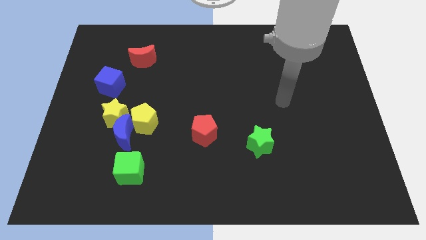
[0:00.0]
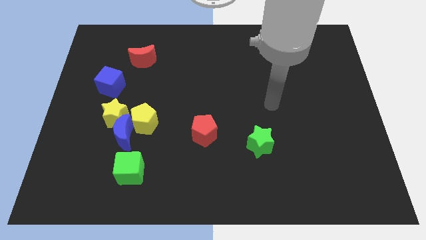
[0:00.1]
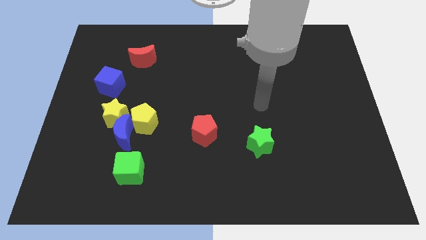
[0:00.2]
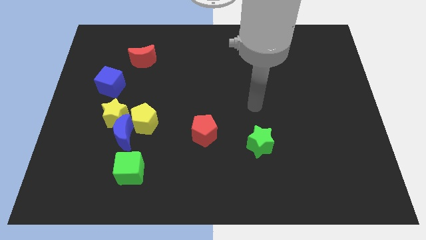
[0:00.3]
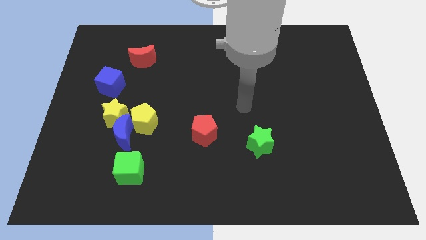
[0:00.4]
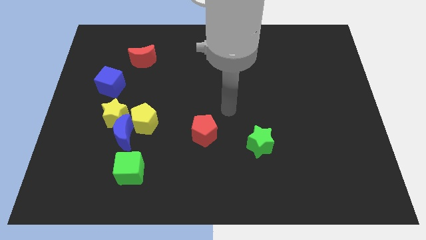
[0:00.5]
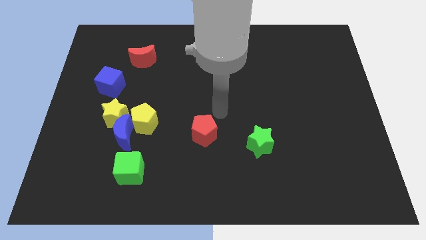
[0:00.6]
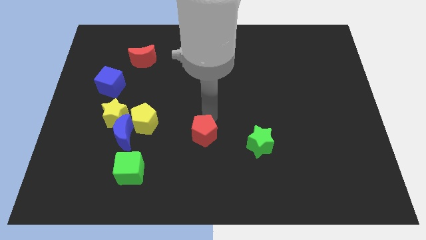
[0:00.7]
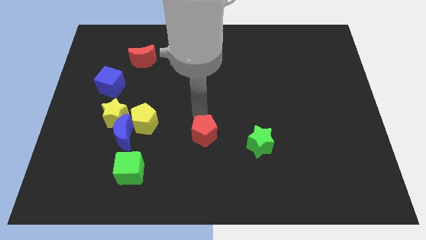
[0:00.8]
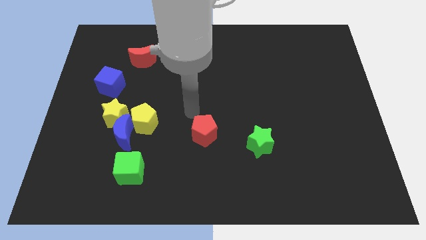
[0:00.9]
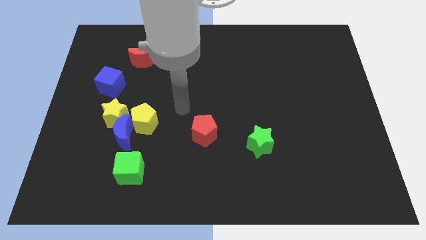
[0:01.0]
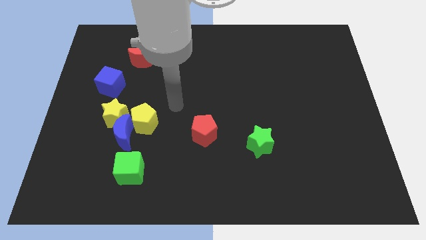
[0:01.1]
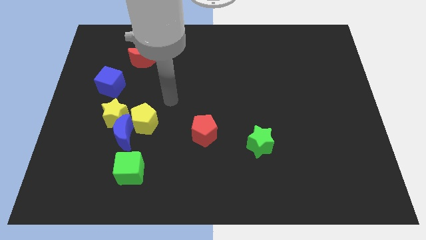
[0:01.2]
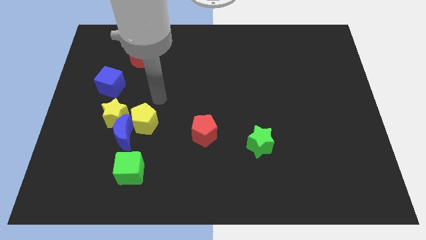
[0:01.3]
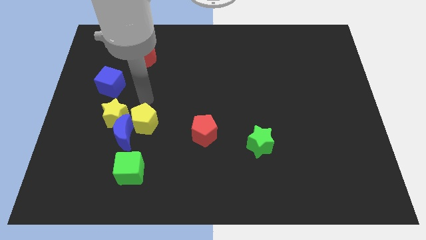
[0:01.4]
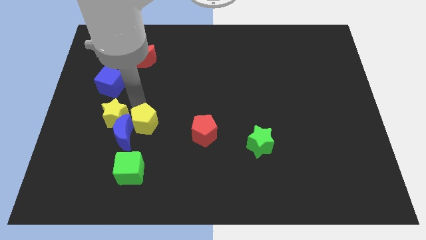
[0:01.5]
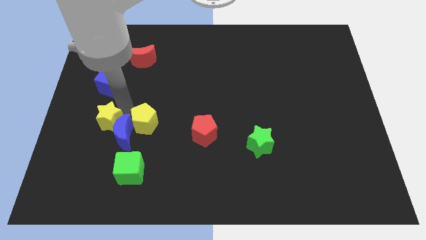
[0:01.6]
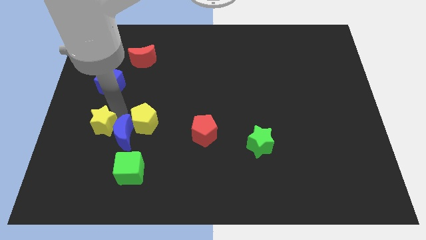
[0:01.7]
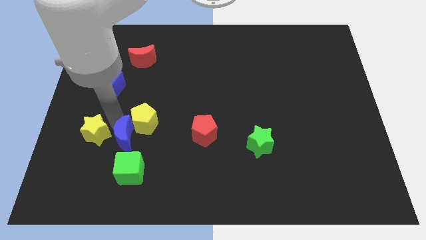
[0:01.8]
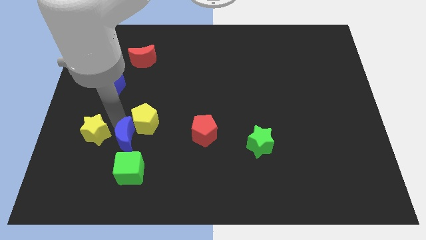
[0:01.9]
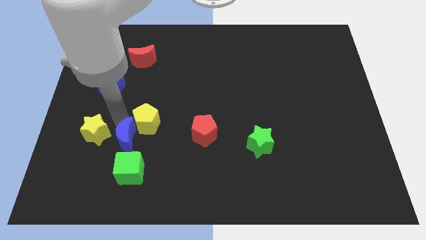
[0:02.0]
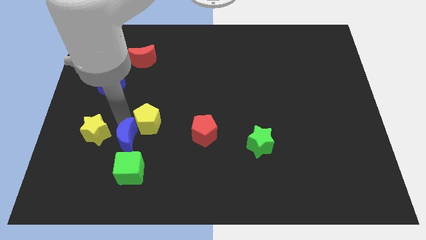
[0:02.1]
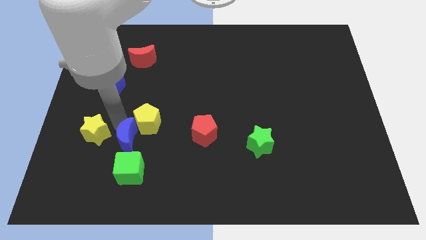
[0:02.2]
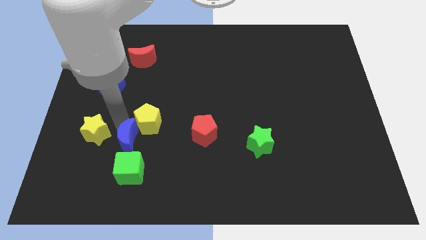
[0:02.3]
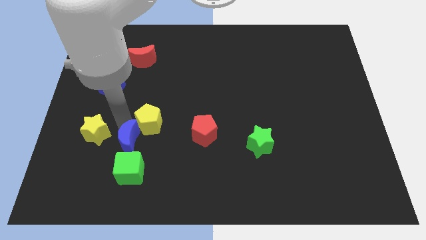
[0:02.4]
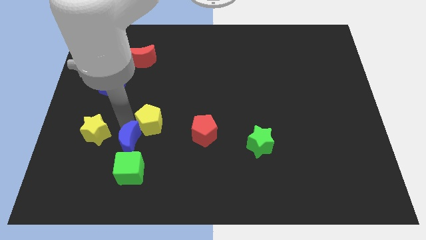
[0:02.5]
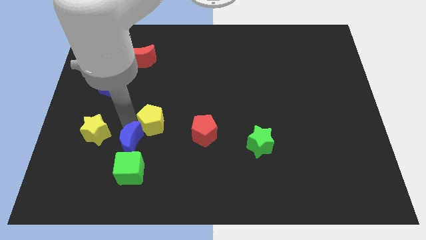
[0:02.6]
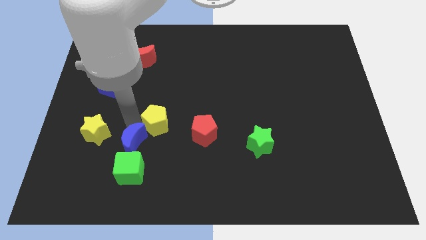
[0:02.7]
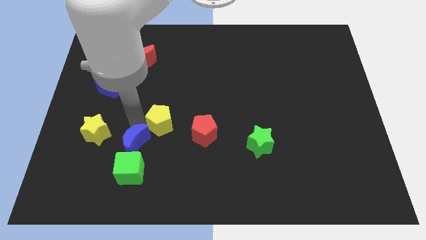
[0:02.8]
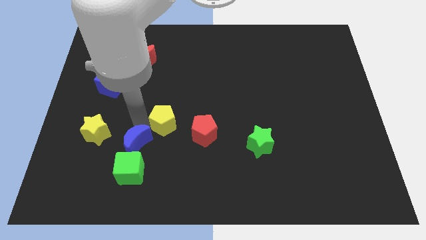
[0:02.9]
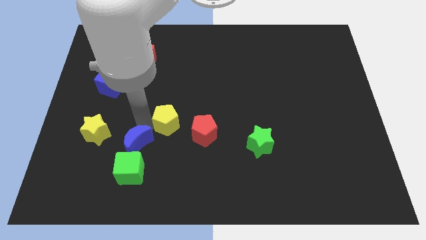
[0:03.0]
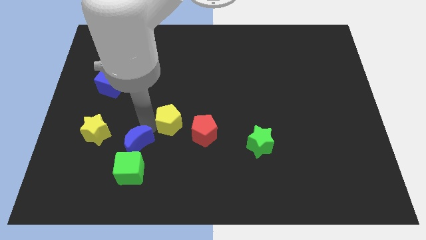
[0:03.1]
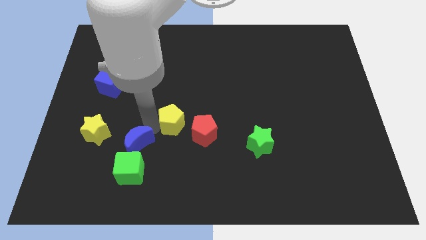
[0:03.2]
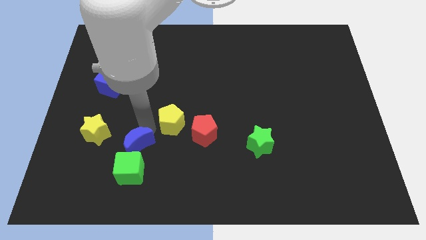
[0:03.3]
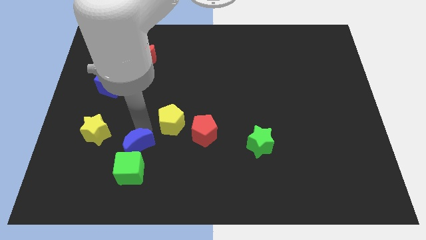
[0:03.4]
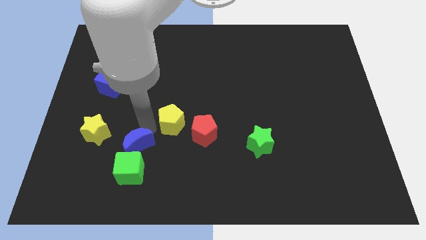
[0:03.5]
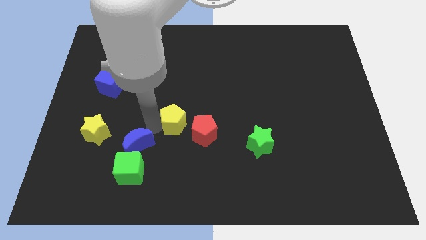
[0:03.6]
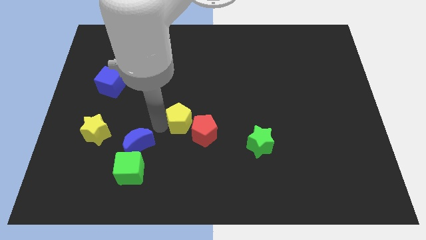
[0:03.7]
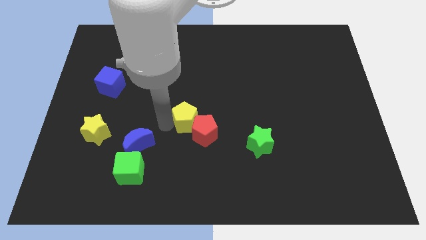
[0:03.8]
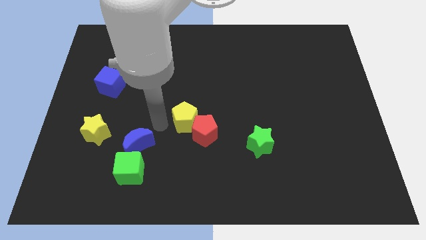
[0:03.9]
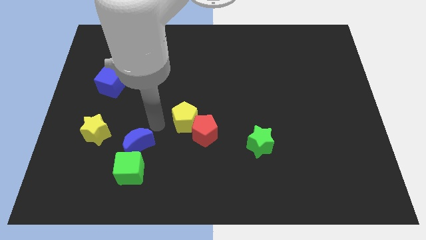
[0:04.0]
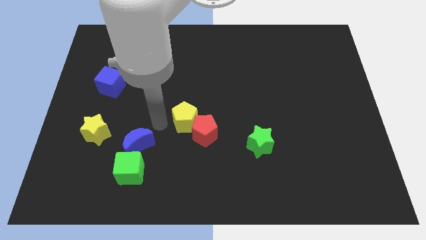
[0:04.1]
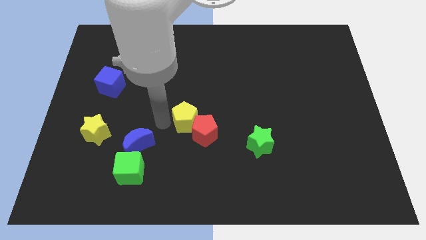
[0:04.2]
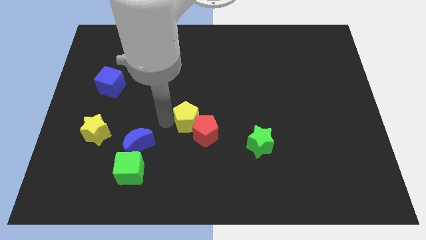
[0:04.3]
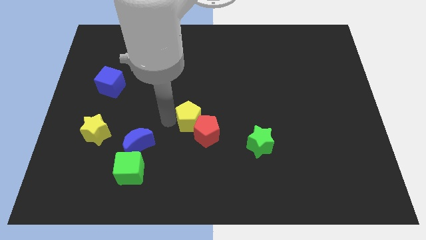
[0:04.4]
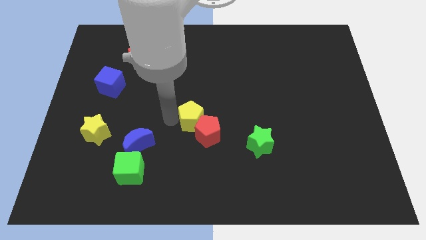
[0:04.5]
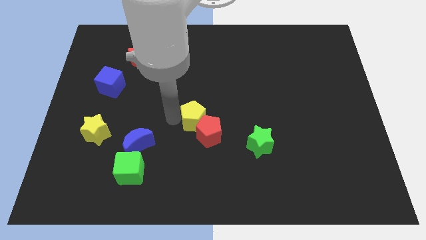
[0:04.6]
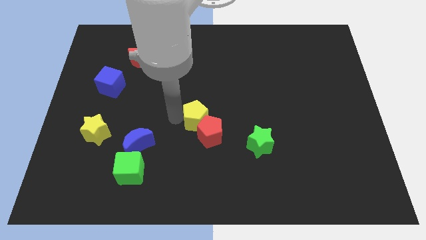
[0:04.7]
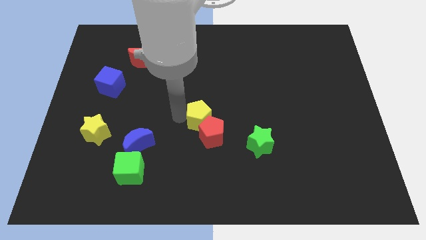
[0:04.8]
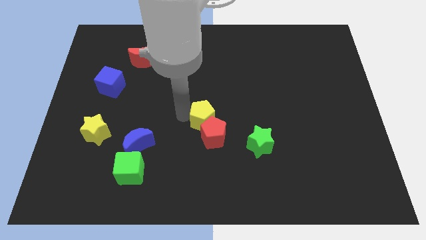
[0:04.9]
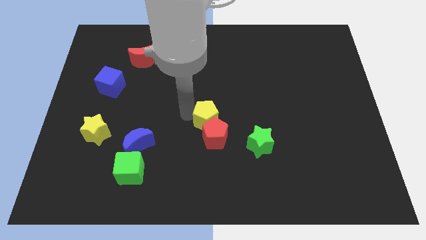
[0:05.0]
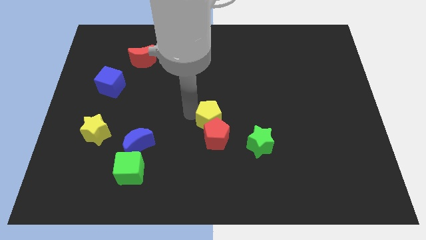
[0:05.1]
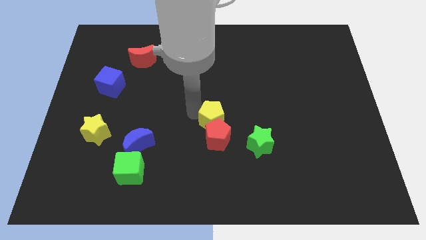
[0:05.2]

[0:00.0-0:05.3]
move the yellow pentagon diagonally up and to the right of the red pentagon

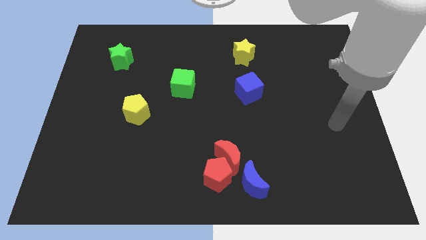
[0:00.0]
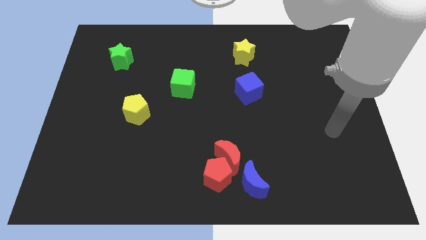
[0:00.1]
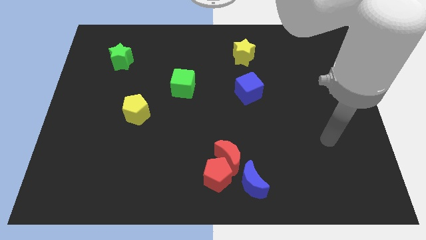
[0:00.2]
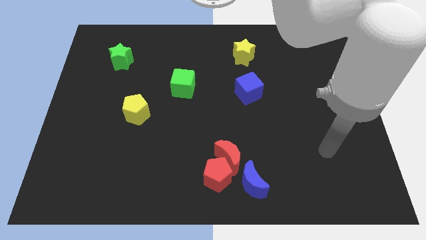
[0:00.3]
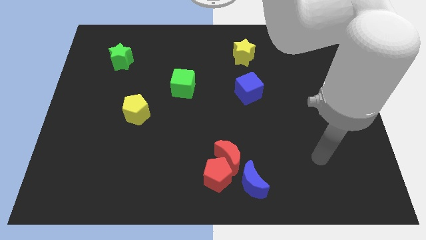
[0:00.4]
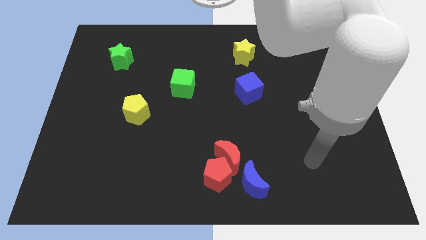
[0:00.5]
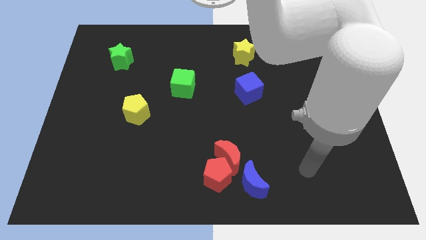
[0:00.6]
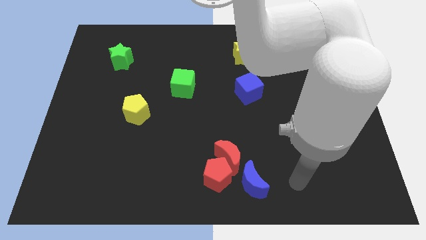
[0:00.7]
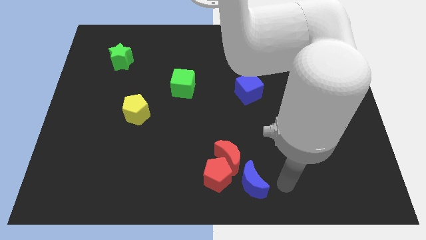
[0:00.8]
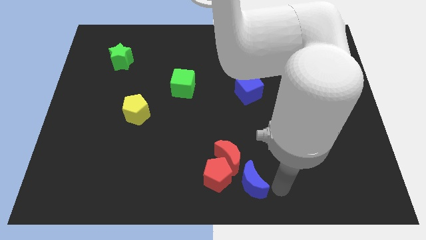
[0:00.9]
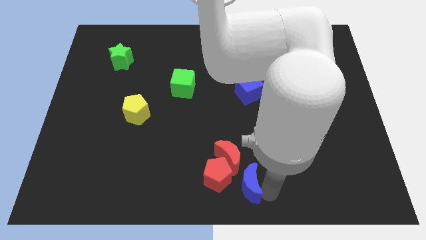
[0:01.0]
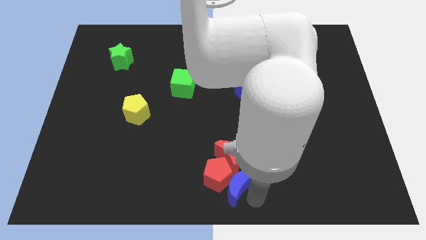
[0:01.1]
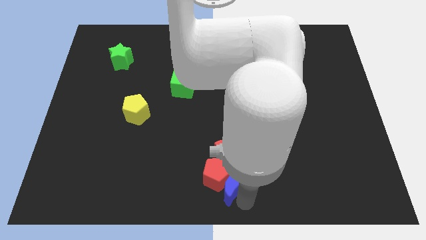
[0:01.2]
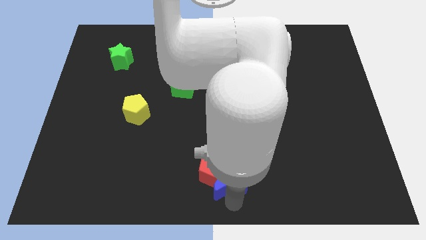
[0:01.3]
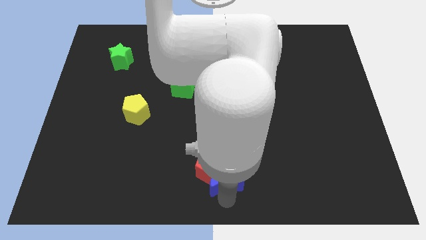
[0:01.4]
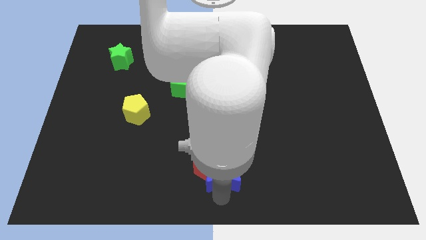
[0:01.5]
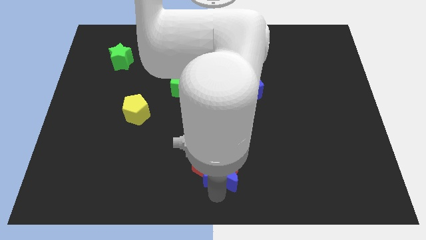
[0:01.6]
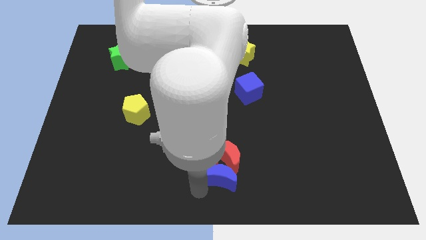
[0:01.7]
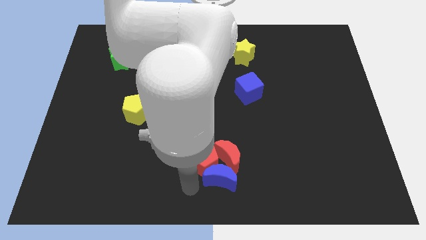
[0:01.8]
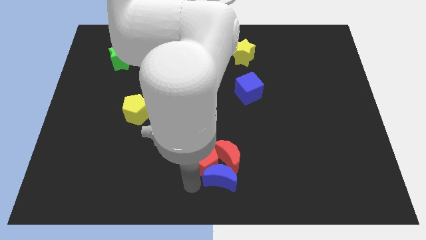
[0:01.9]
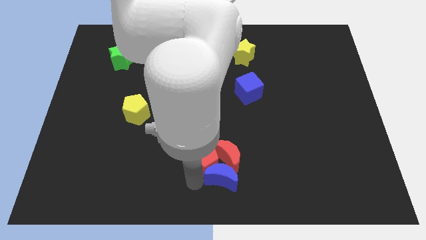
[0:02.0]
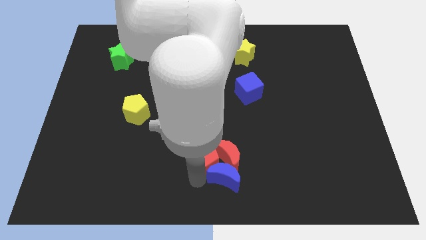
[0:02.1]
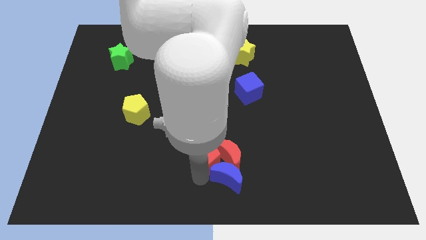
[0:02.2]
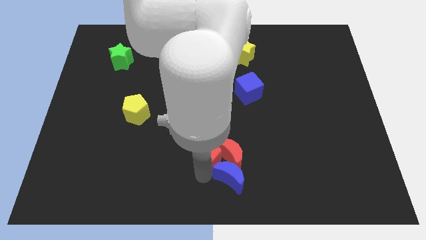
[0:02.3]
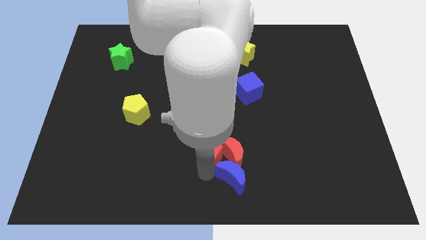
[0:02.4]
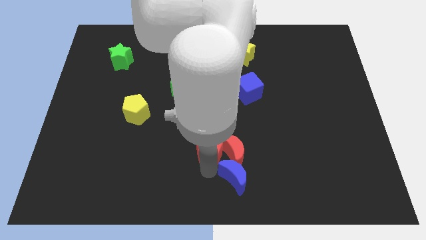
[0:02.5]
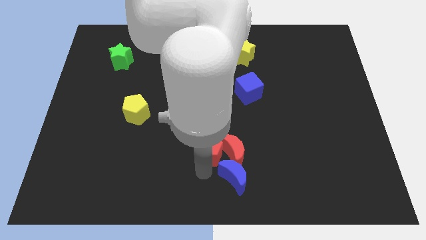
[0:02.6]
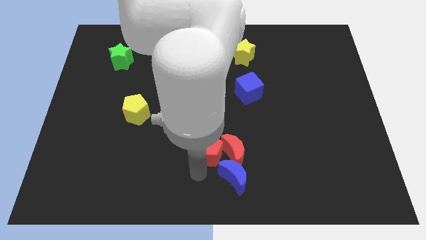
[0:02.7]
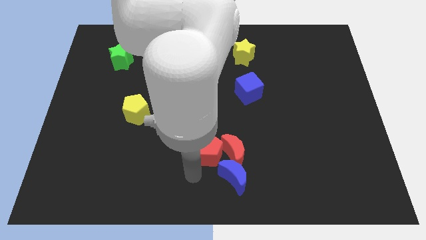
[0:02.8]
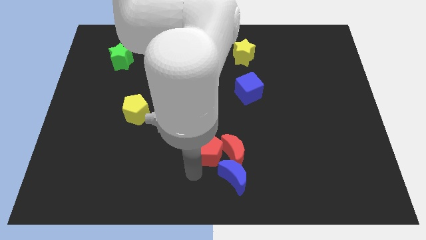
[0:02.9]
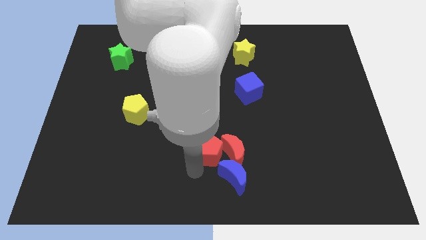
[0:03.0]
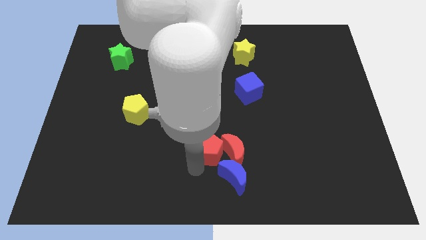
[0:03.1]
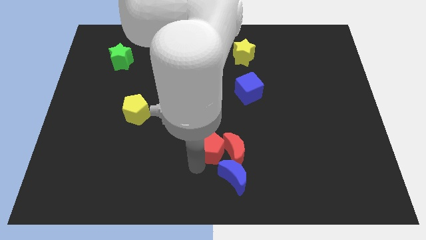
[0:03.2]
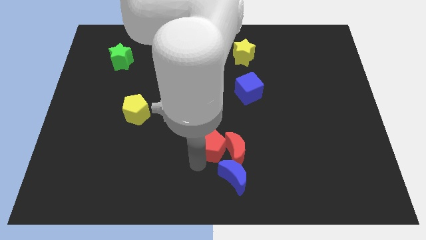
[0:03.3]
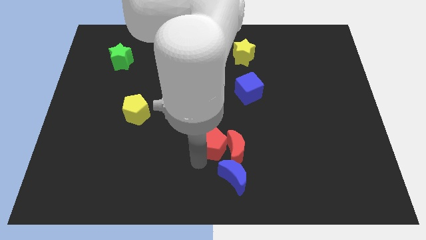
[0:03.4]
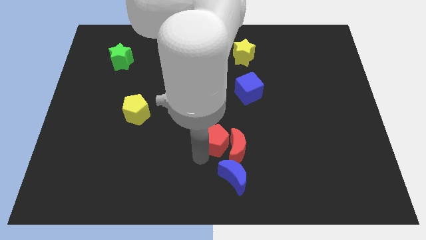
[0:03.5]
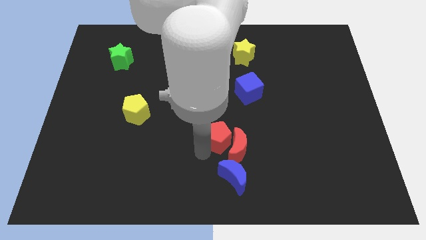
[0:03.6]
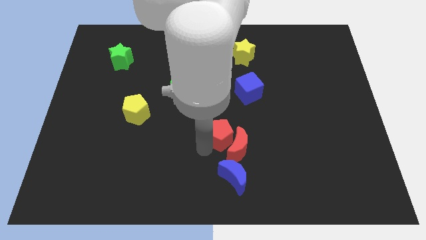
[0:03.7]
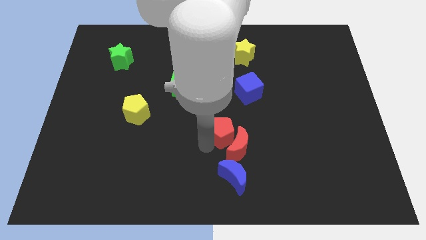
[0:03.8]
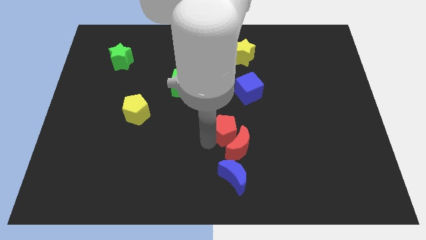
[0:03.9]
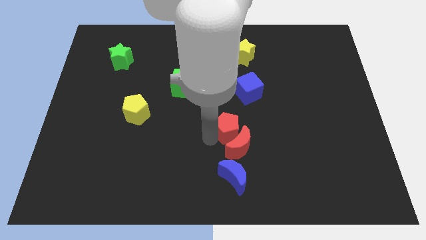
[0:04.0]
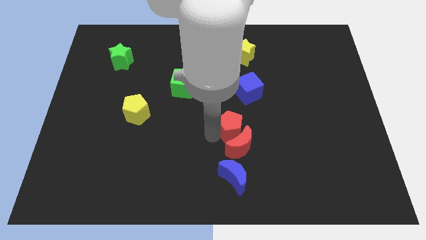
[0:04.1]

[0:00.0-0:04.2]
put the red pentagon to the top right side of the red moon
